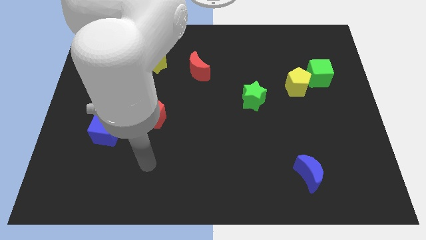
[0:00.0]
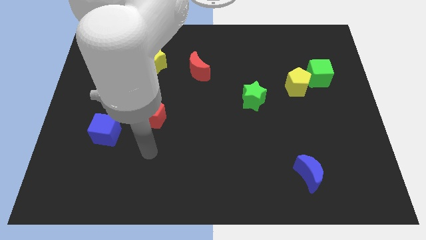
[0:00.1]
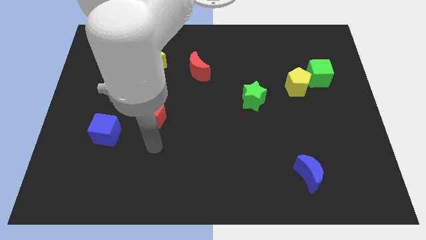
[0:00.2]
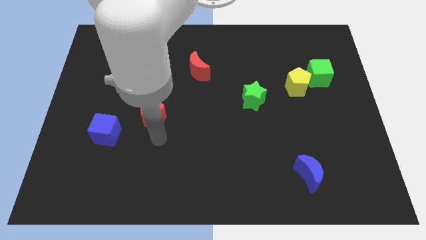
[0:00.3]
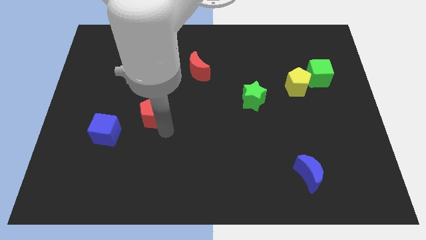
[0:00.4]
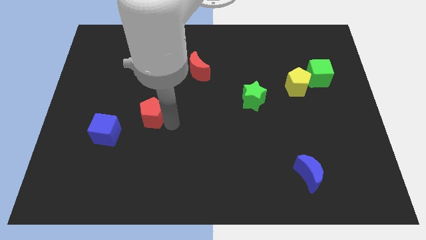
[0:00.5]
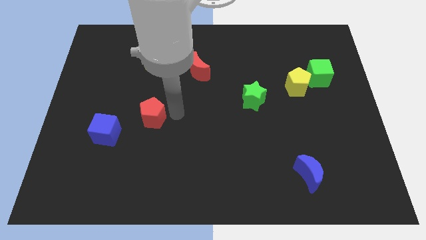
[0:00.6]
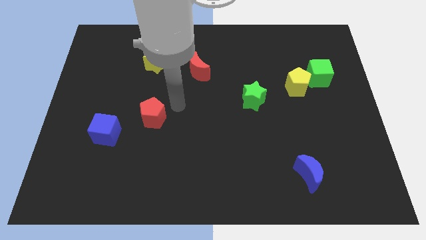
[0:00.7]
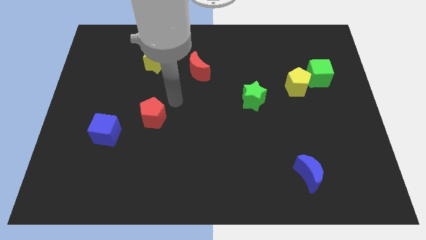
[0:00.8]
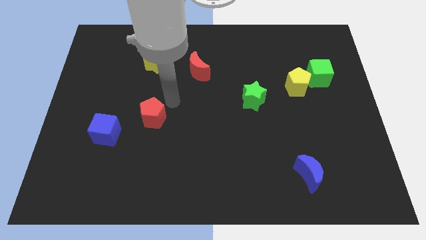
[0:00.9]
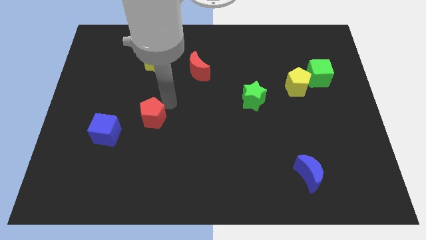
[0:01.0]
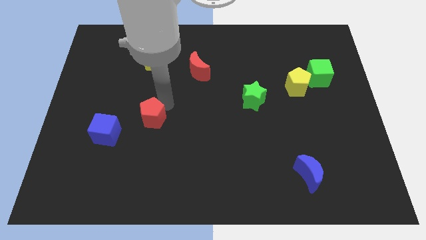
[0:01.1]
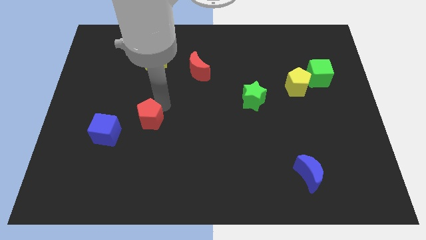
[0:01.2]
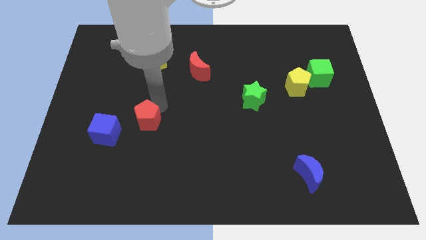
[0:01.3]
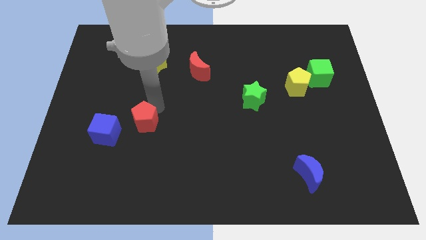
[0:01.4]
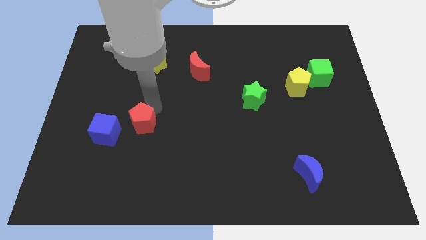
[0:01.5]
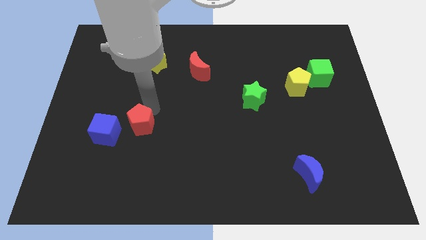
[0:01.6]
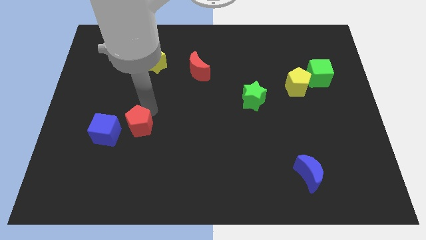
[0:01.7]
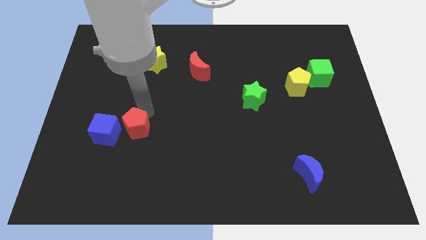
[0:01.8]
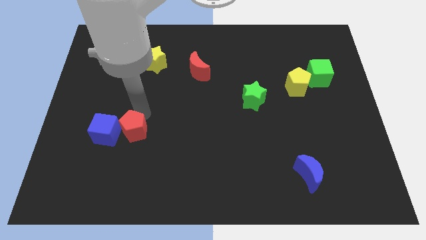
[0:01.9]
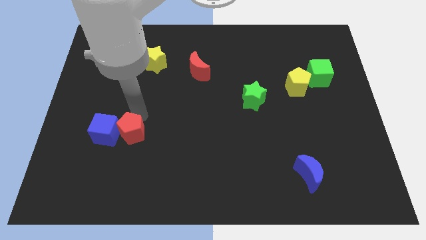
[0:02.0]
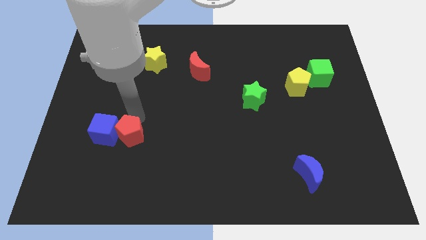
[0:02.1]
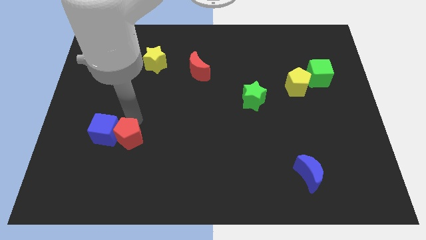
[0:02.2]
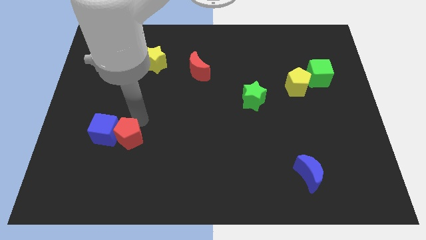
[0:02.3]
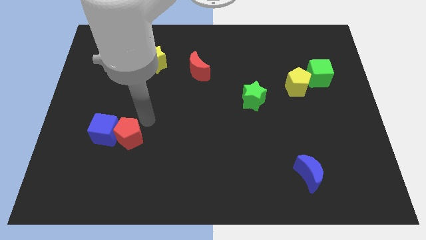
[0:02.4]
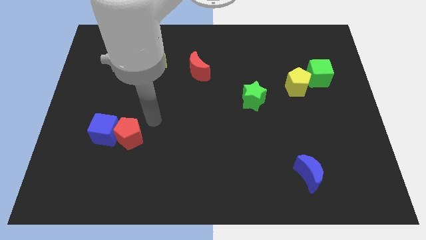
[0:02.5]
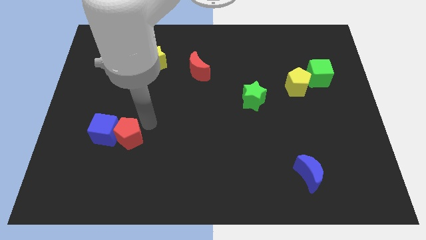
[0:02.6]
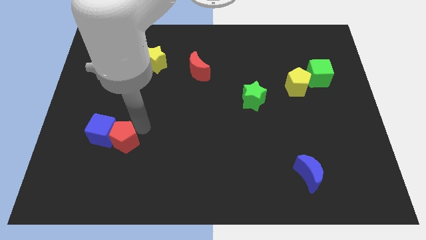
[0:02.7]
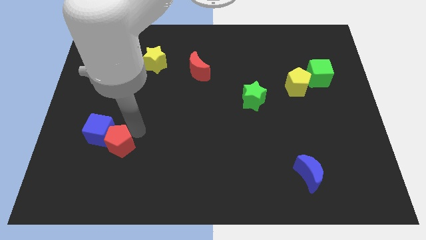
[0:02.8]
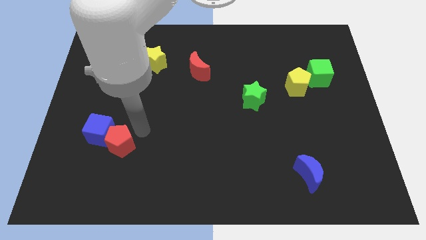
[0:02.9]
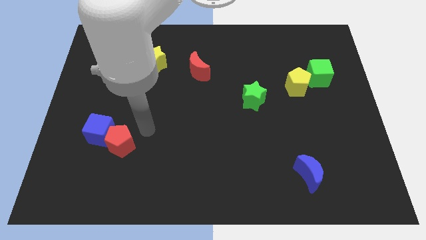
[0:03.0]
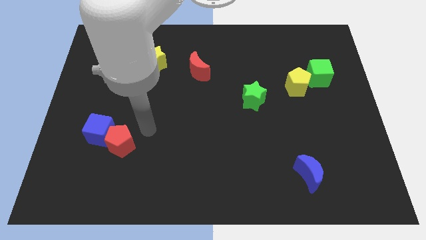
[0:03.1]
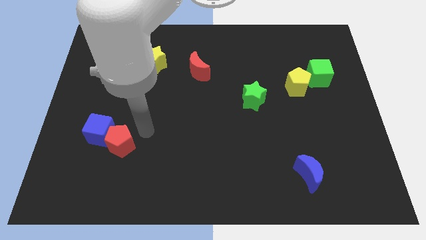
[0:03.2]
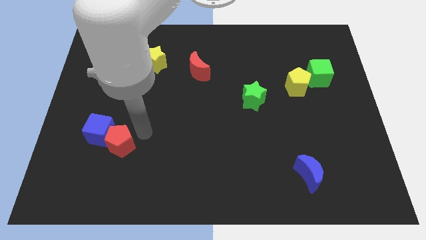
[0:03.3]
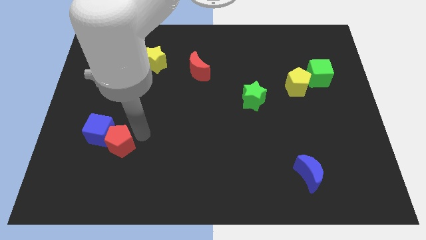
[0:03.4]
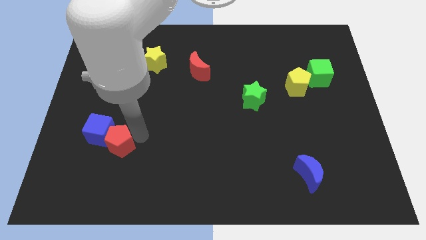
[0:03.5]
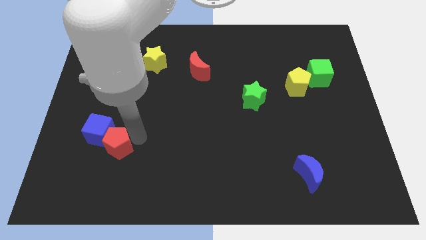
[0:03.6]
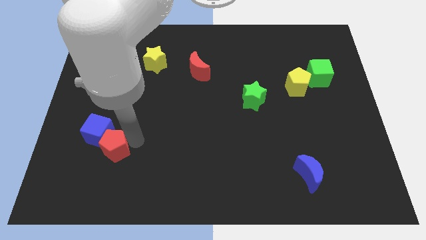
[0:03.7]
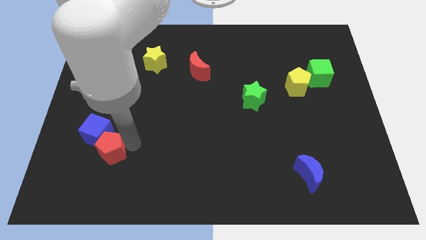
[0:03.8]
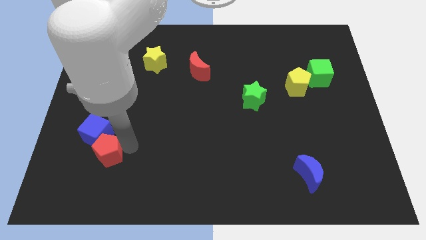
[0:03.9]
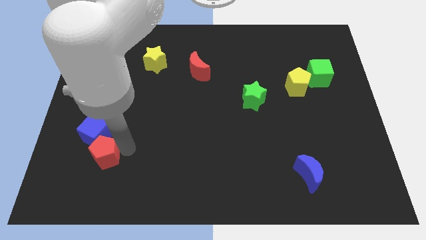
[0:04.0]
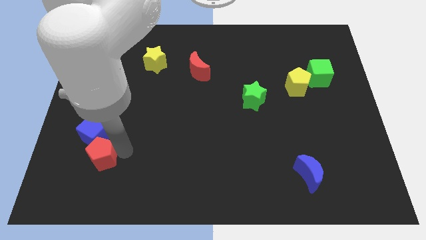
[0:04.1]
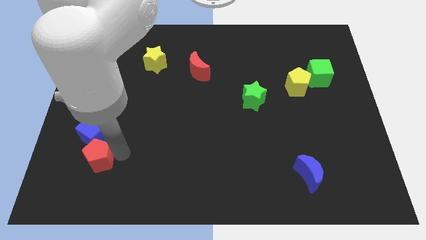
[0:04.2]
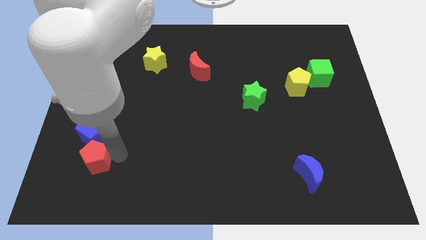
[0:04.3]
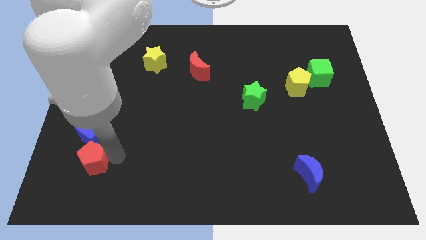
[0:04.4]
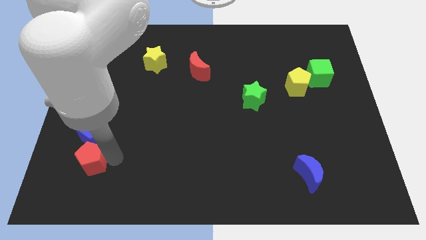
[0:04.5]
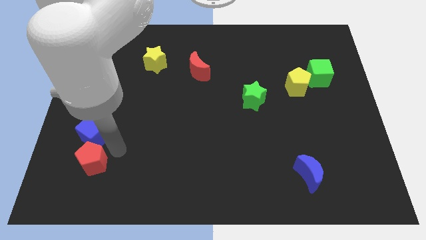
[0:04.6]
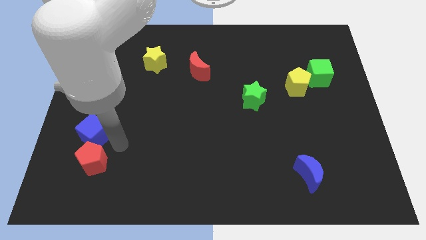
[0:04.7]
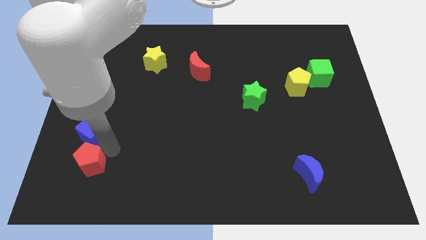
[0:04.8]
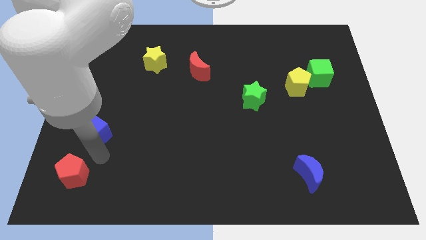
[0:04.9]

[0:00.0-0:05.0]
push the red pentagon to the bottom left of the board

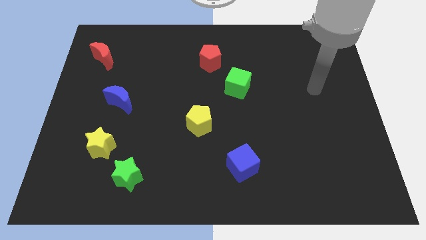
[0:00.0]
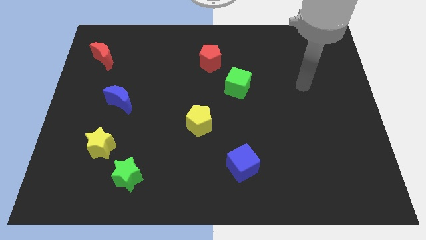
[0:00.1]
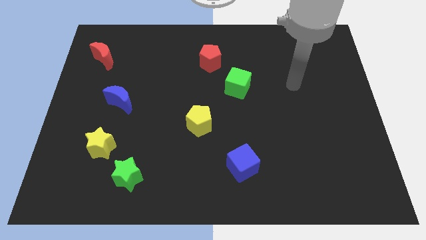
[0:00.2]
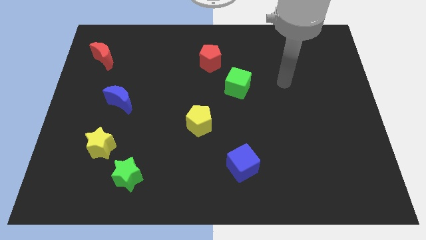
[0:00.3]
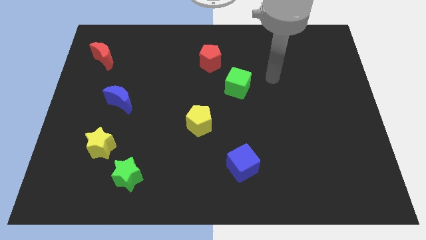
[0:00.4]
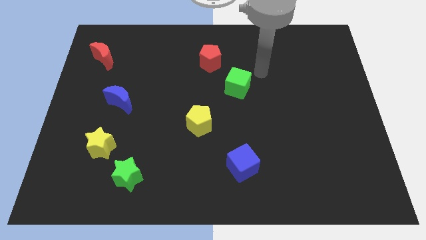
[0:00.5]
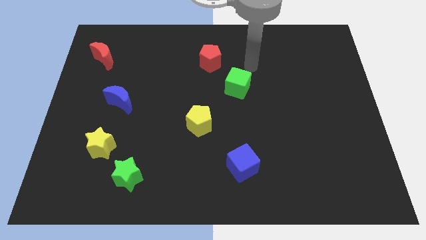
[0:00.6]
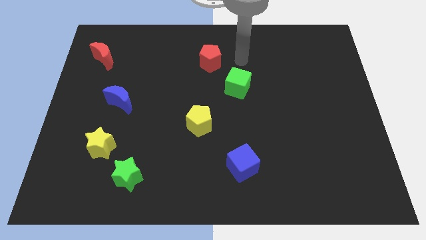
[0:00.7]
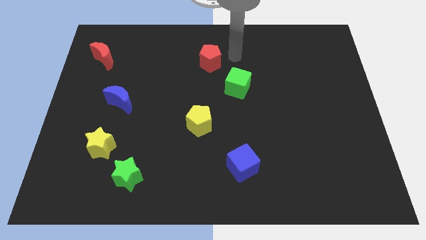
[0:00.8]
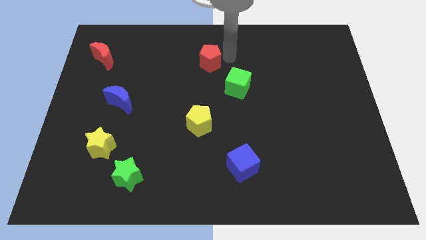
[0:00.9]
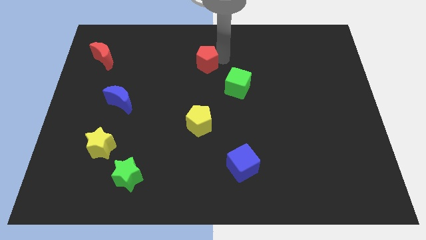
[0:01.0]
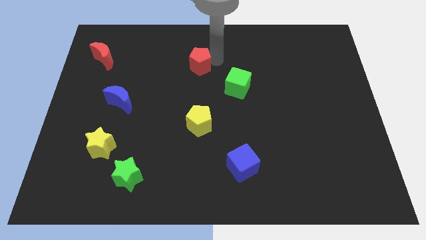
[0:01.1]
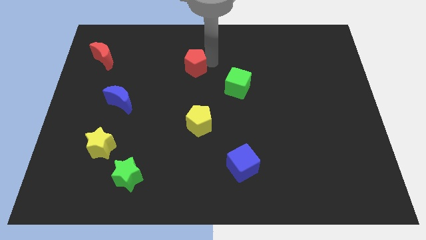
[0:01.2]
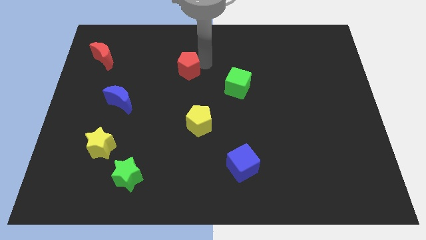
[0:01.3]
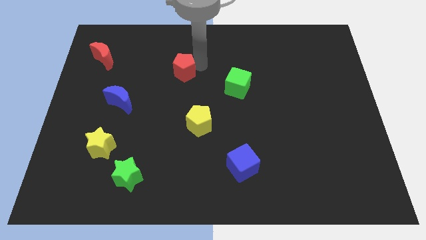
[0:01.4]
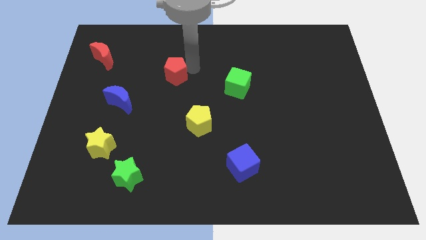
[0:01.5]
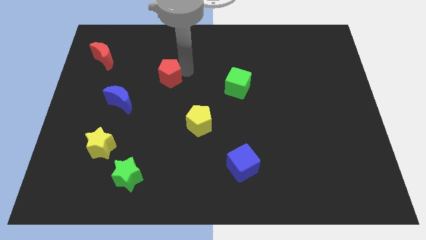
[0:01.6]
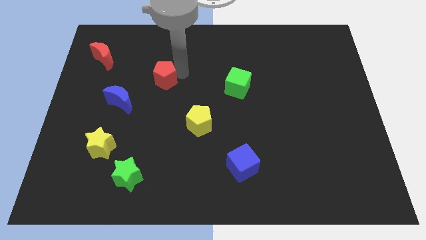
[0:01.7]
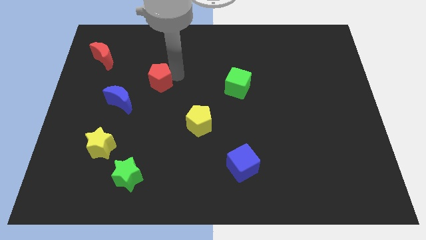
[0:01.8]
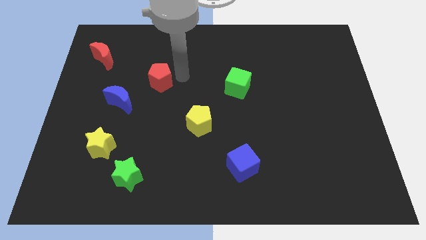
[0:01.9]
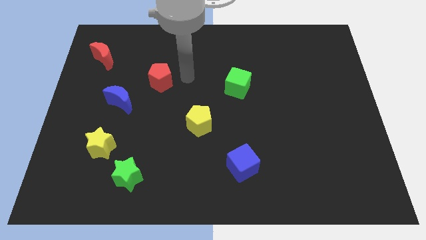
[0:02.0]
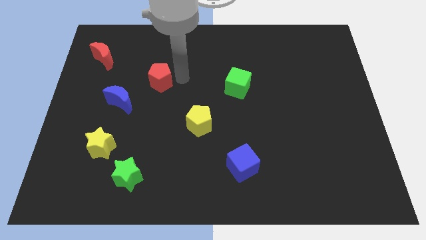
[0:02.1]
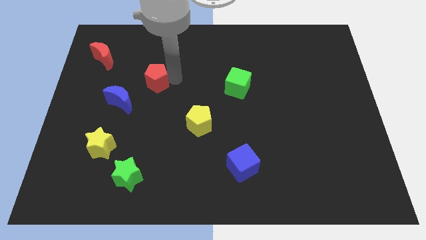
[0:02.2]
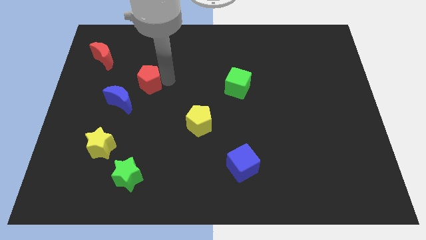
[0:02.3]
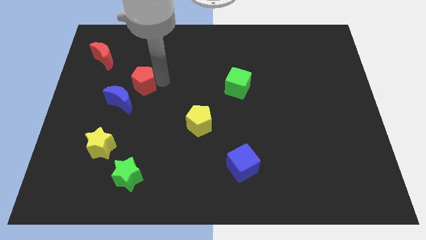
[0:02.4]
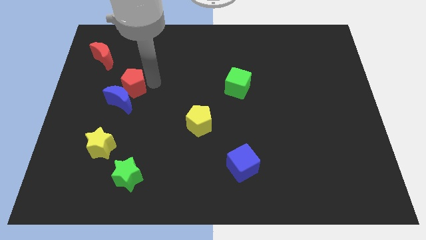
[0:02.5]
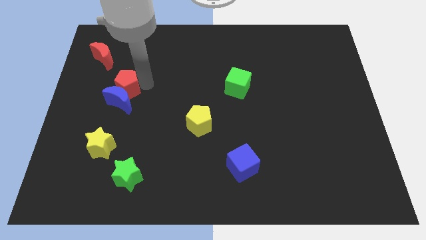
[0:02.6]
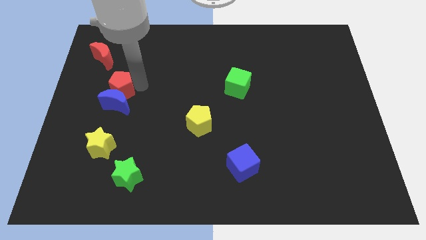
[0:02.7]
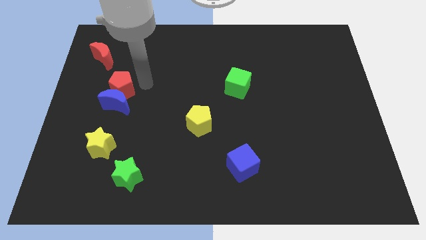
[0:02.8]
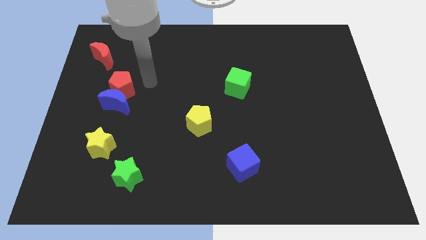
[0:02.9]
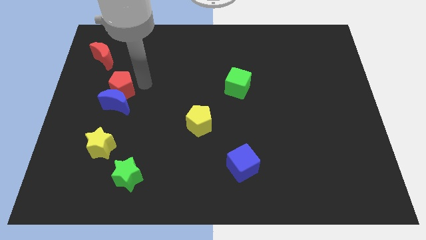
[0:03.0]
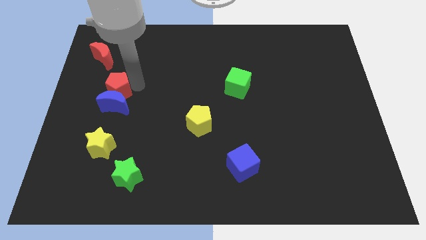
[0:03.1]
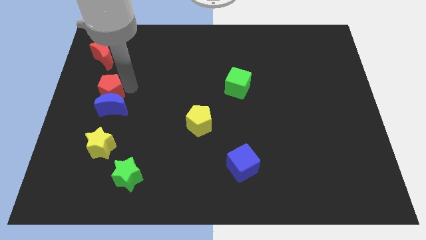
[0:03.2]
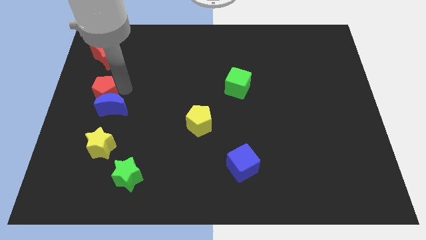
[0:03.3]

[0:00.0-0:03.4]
slide the red pentagon to the left side of the board
